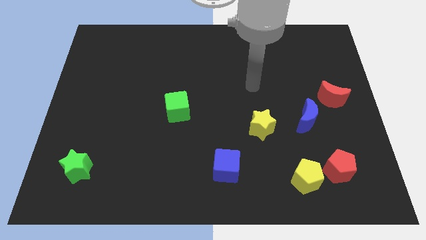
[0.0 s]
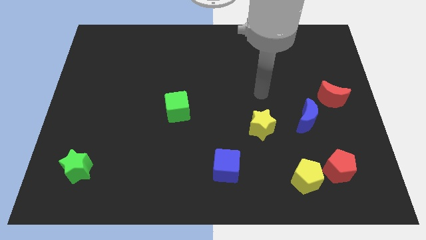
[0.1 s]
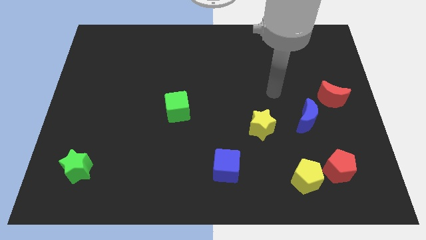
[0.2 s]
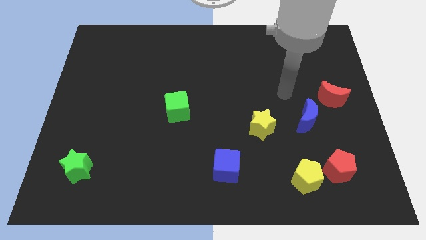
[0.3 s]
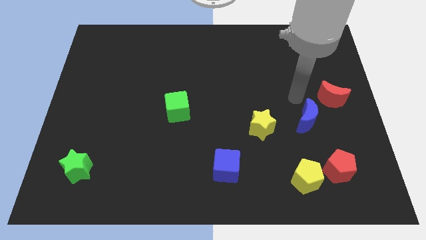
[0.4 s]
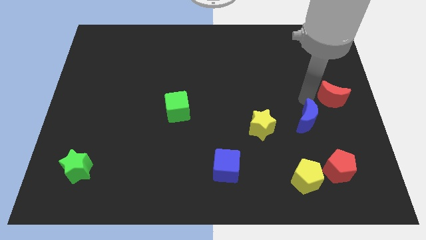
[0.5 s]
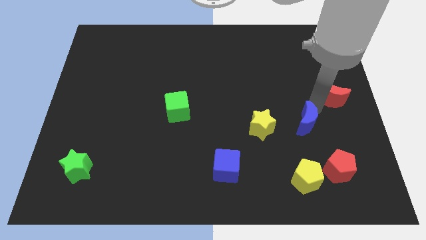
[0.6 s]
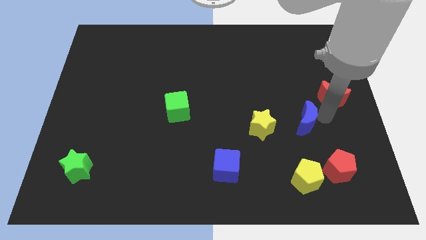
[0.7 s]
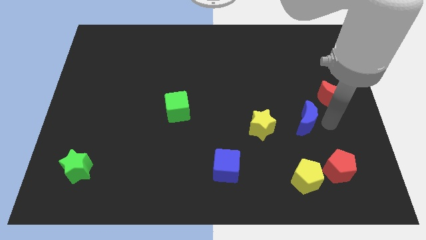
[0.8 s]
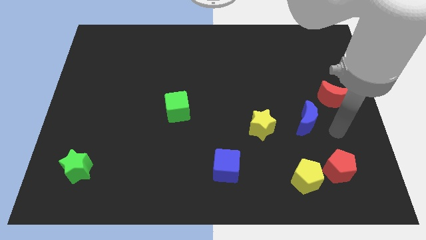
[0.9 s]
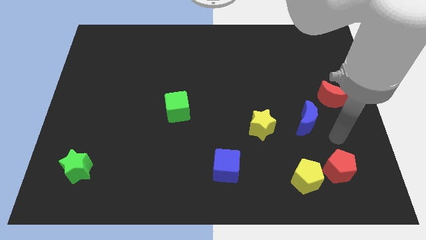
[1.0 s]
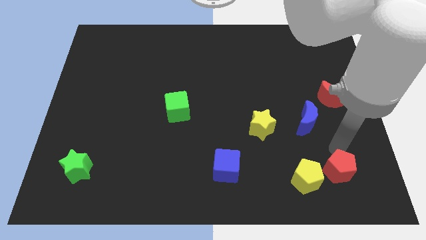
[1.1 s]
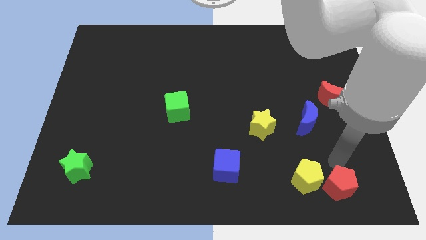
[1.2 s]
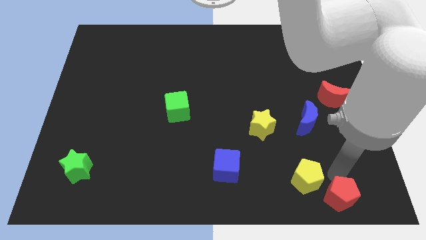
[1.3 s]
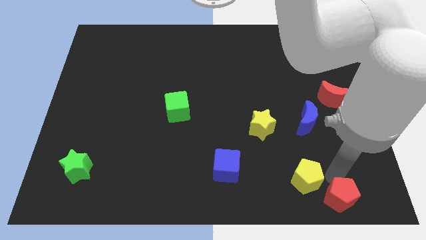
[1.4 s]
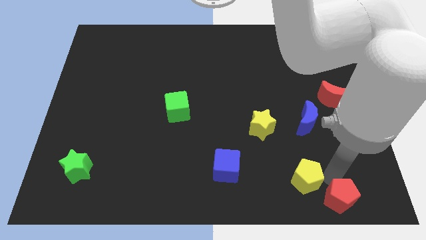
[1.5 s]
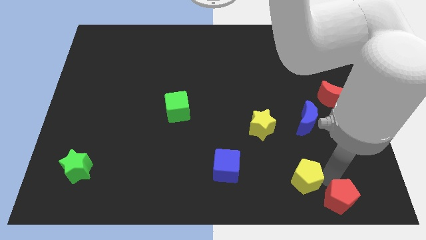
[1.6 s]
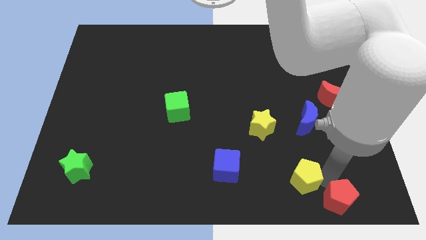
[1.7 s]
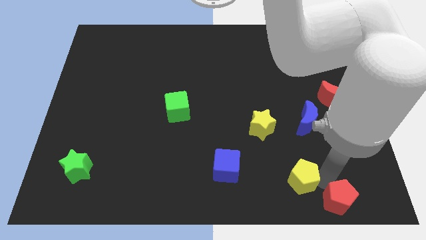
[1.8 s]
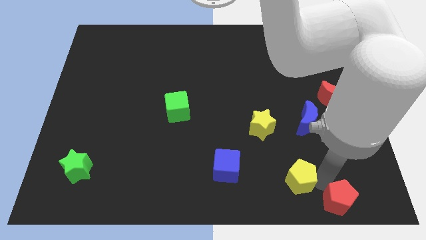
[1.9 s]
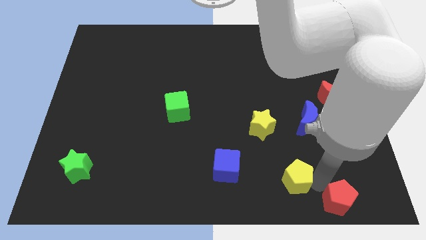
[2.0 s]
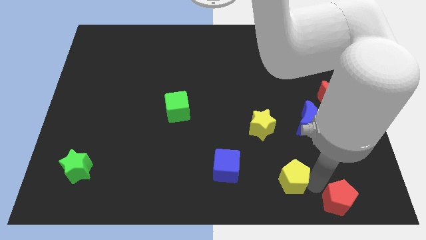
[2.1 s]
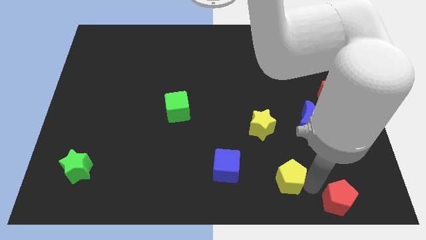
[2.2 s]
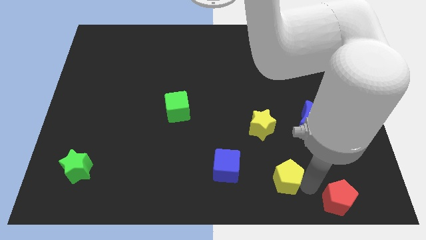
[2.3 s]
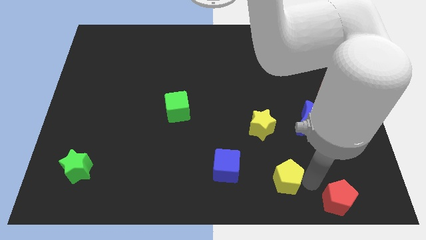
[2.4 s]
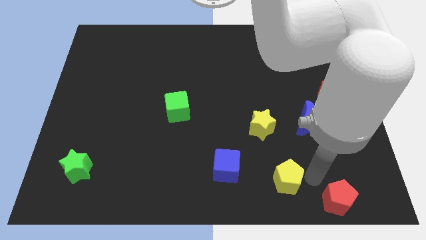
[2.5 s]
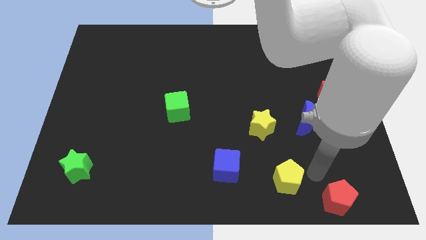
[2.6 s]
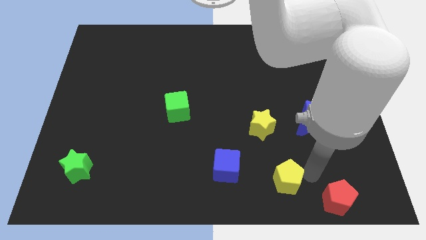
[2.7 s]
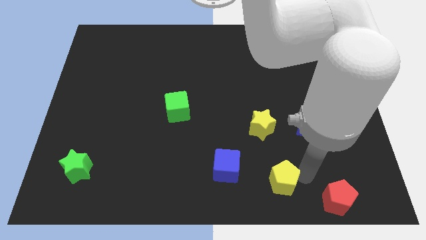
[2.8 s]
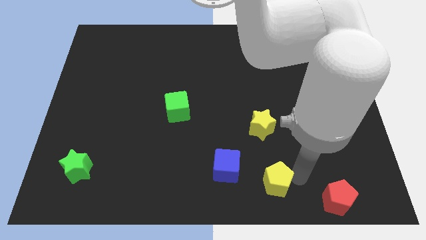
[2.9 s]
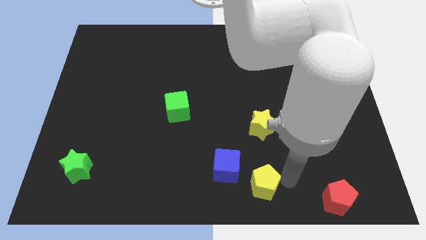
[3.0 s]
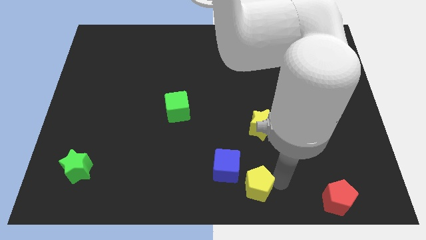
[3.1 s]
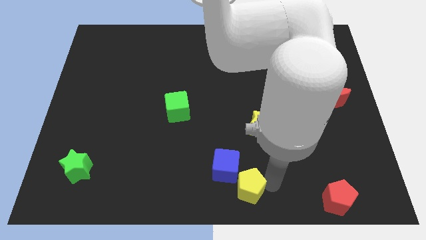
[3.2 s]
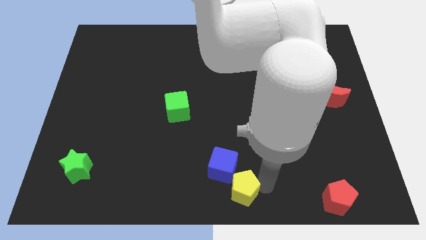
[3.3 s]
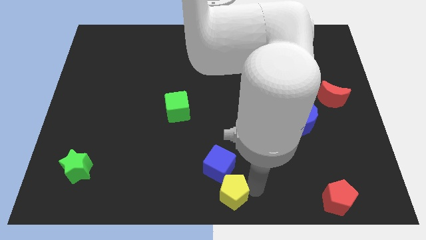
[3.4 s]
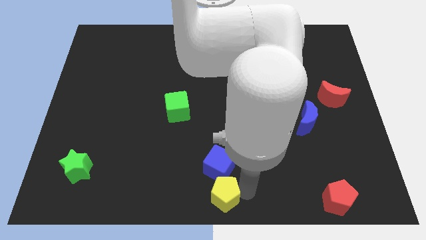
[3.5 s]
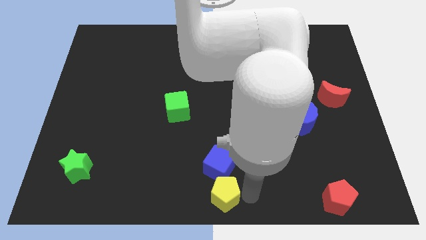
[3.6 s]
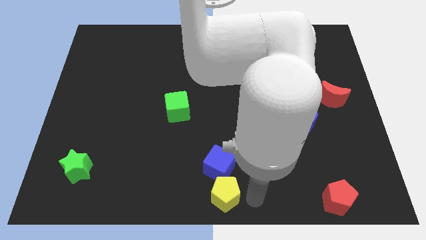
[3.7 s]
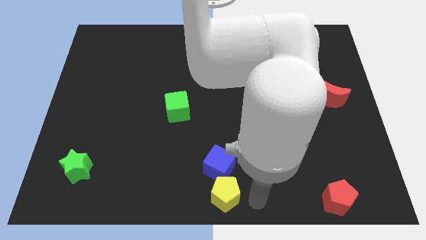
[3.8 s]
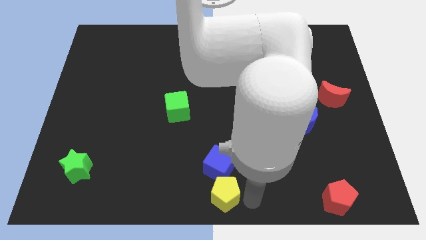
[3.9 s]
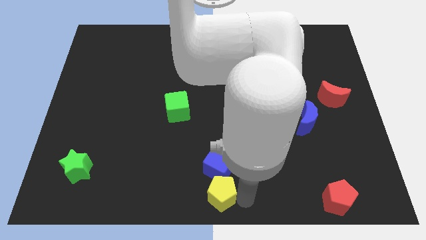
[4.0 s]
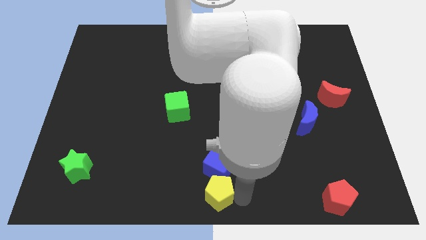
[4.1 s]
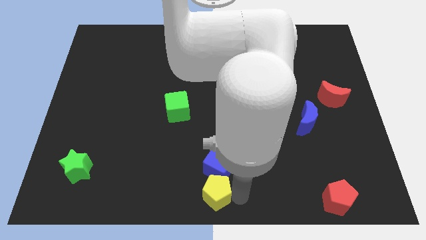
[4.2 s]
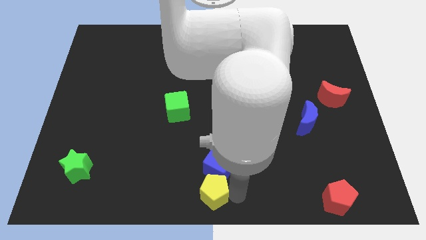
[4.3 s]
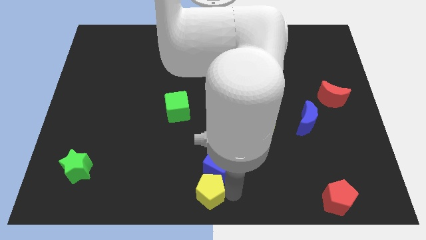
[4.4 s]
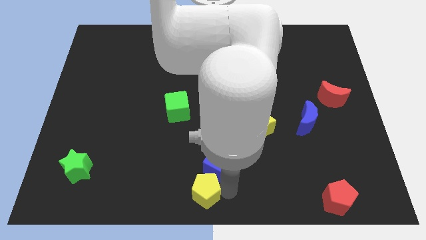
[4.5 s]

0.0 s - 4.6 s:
push the yellow pentagon to the left

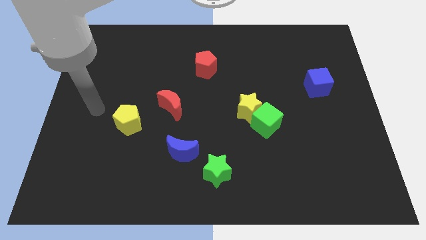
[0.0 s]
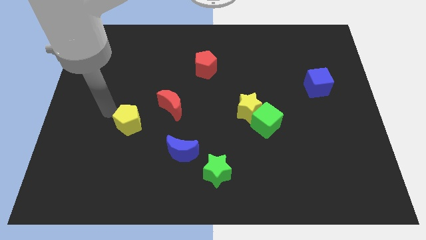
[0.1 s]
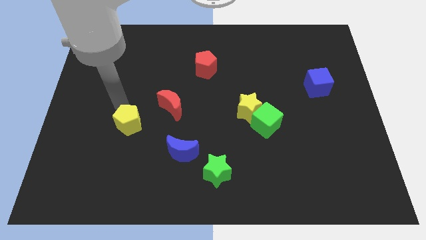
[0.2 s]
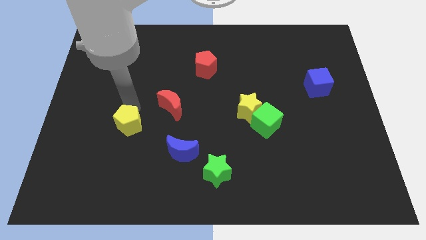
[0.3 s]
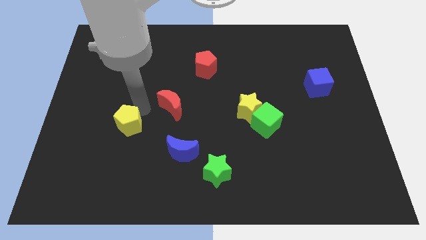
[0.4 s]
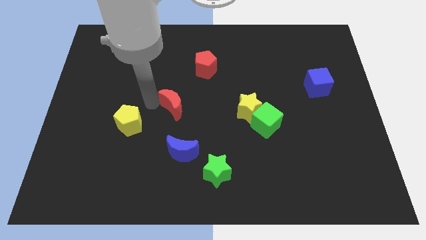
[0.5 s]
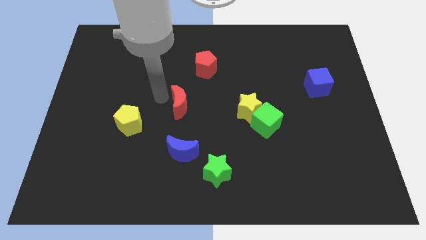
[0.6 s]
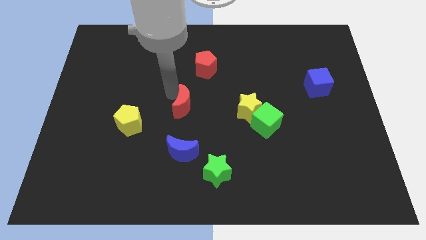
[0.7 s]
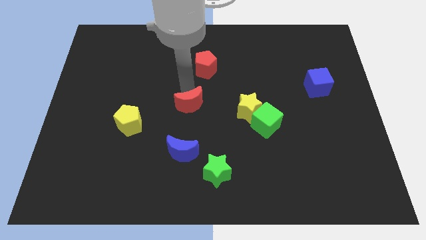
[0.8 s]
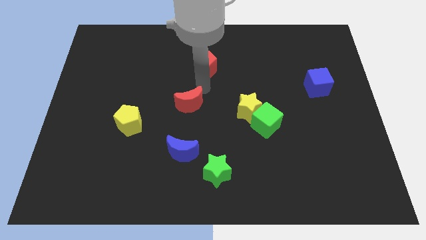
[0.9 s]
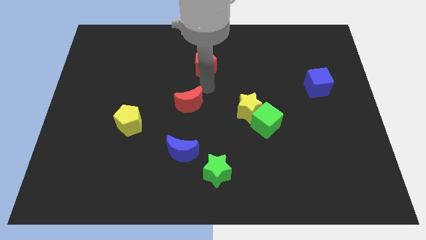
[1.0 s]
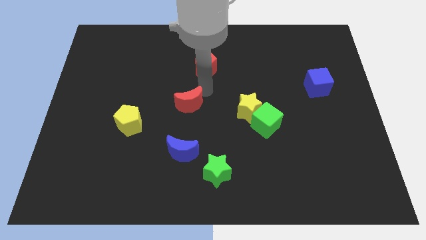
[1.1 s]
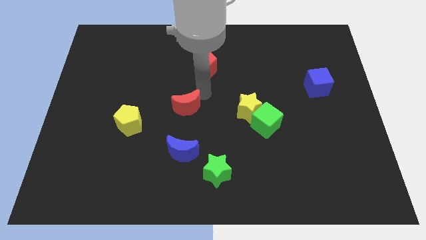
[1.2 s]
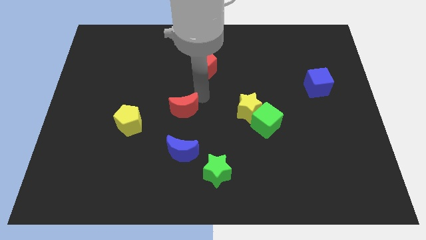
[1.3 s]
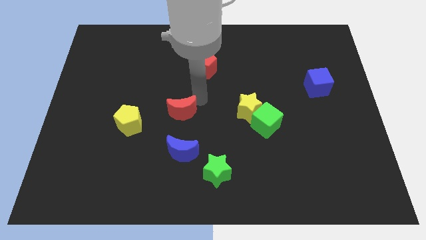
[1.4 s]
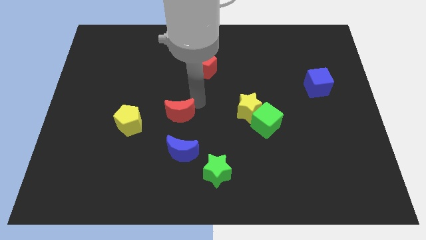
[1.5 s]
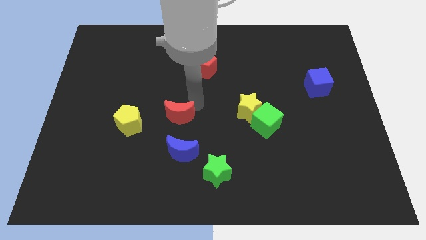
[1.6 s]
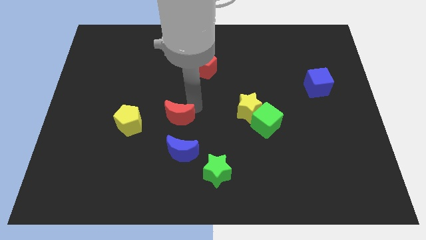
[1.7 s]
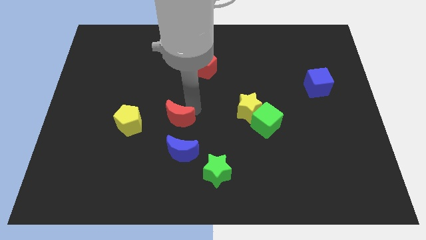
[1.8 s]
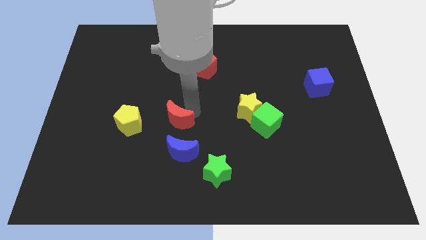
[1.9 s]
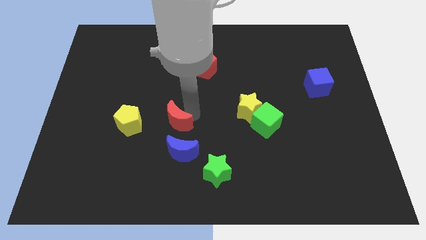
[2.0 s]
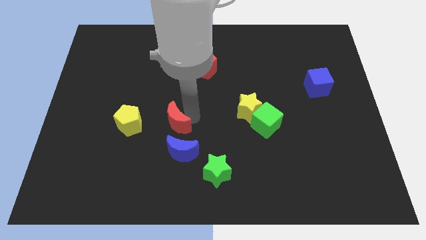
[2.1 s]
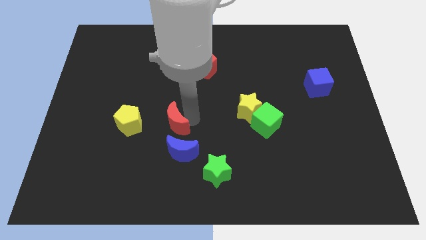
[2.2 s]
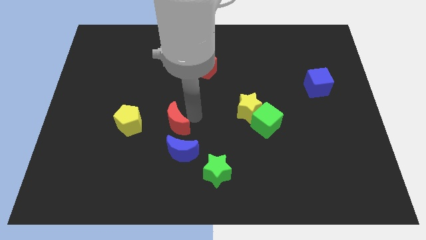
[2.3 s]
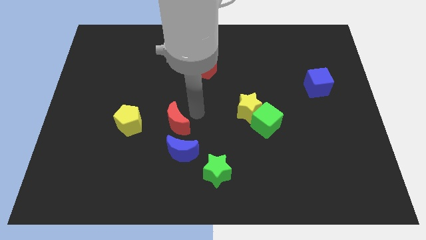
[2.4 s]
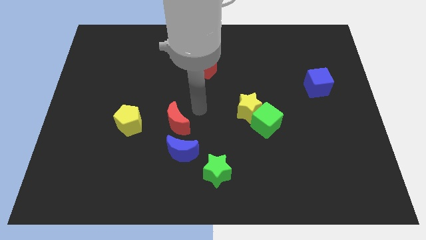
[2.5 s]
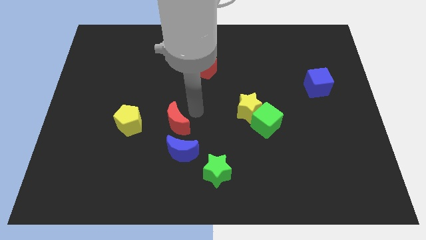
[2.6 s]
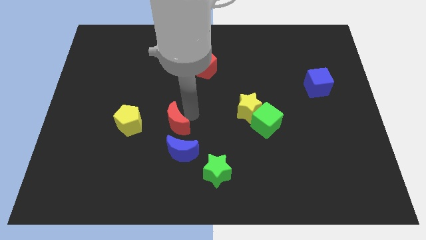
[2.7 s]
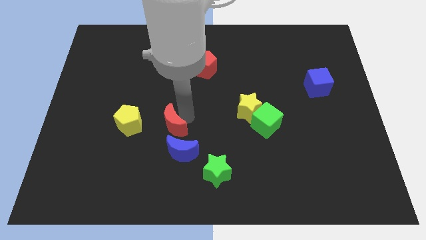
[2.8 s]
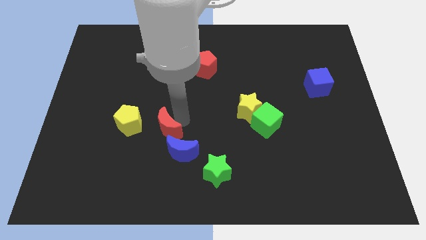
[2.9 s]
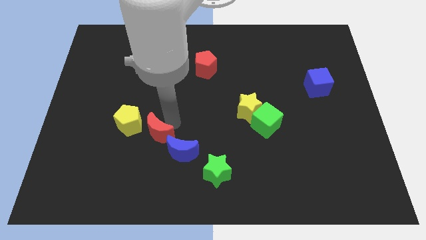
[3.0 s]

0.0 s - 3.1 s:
push the red moon slightly down

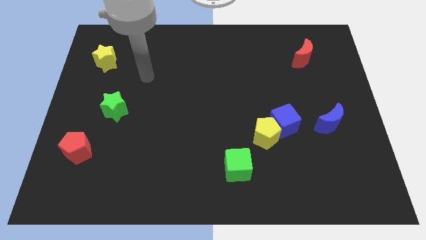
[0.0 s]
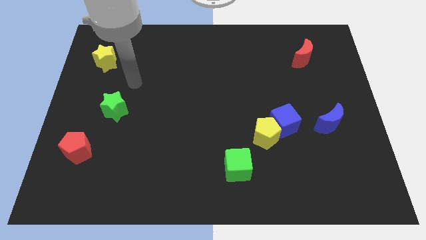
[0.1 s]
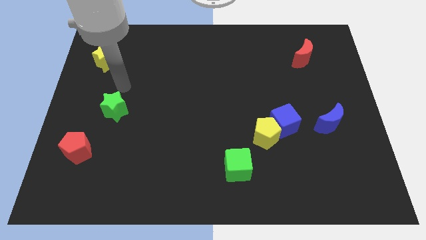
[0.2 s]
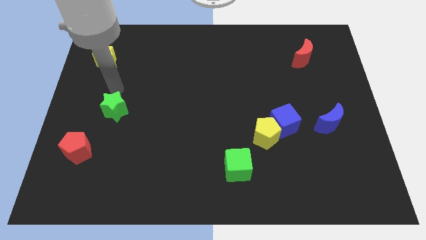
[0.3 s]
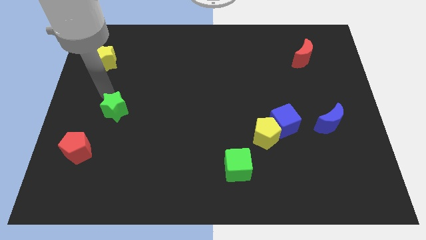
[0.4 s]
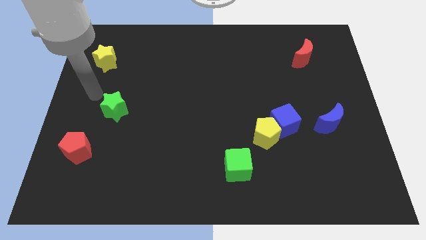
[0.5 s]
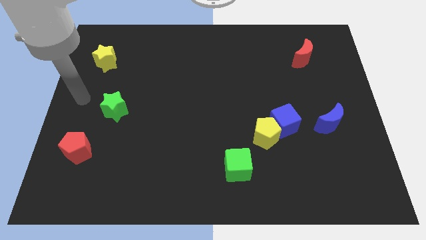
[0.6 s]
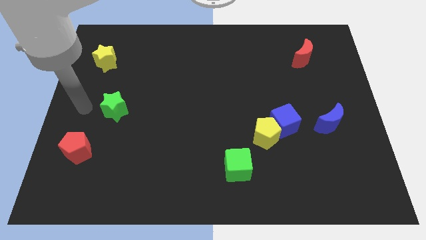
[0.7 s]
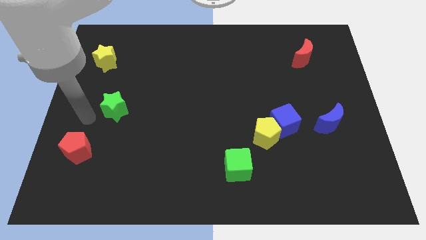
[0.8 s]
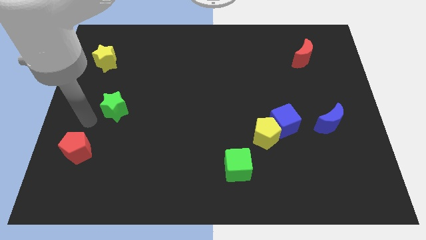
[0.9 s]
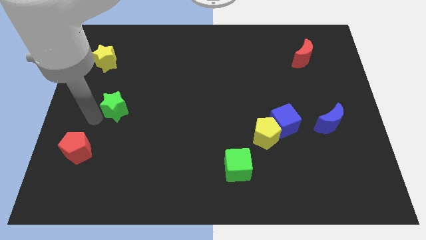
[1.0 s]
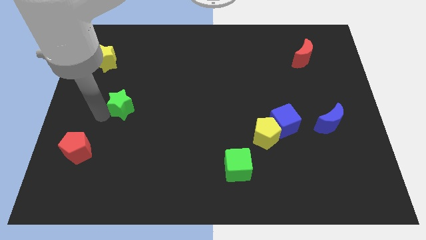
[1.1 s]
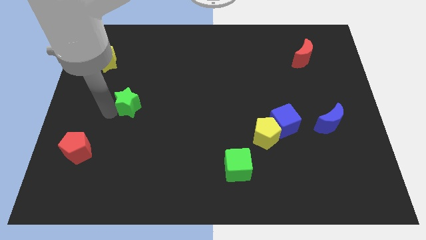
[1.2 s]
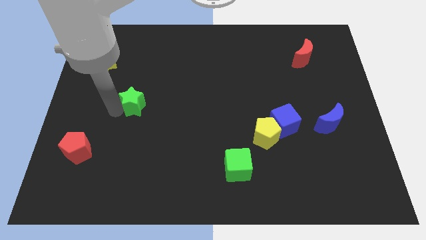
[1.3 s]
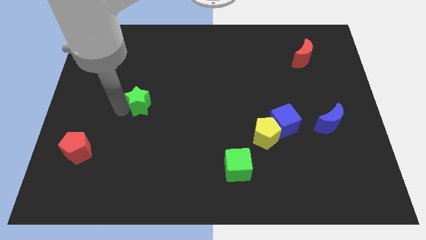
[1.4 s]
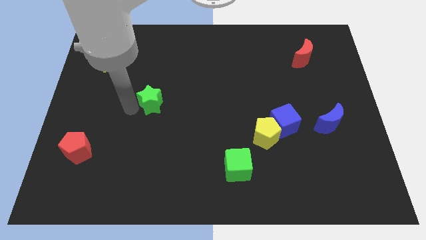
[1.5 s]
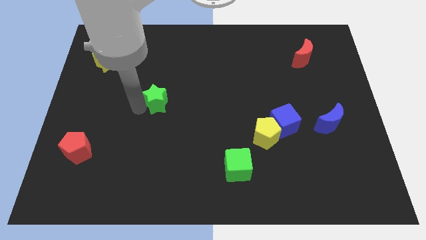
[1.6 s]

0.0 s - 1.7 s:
slide the green star a little diagonally upwards and right
